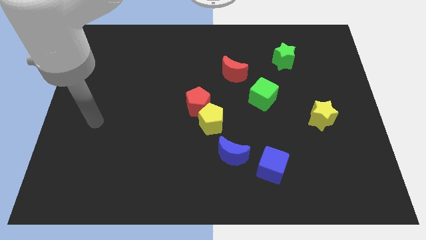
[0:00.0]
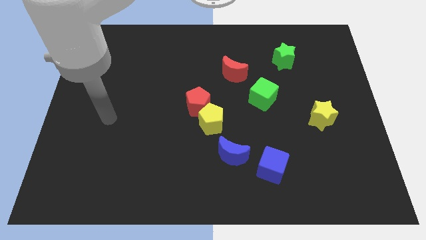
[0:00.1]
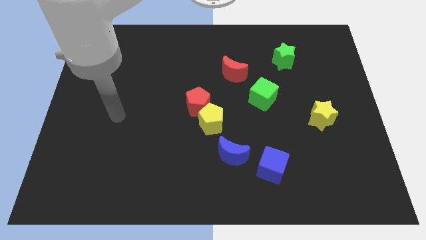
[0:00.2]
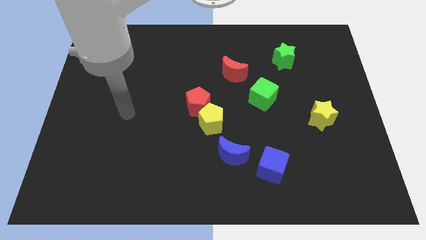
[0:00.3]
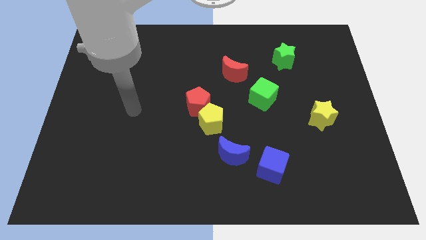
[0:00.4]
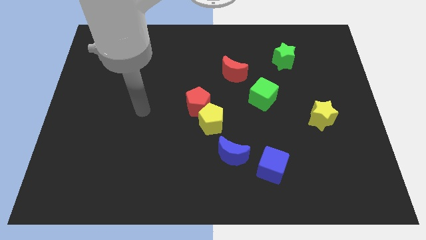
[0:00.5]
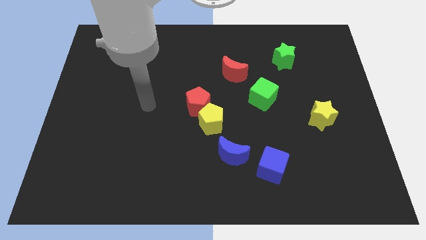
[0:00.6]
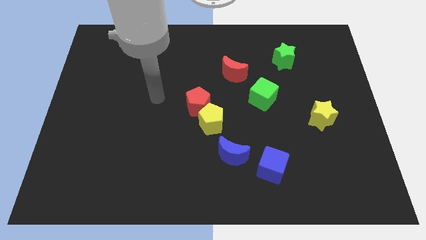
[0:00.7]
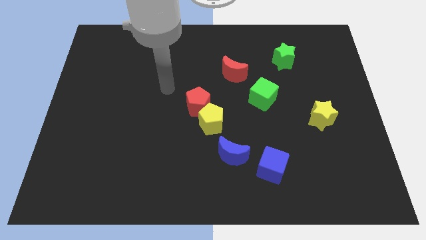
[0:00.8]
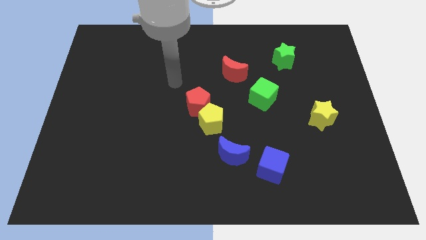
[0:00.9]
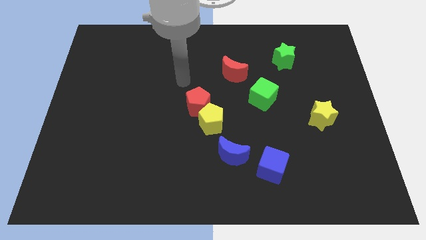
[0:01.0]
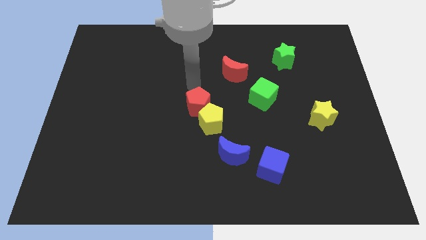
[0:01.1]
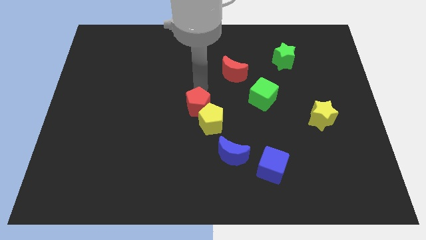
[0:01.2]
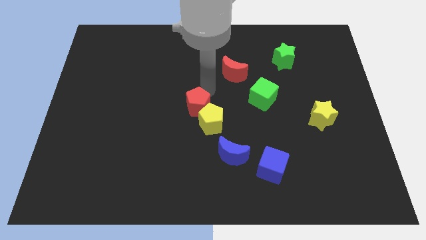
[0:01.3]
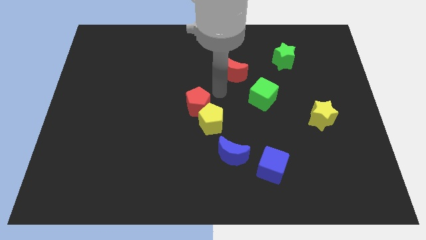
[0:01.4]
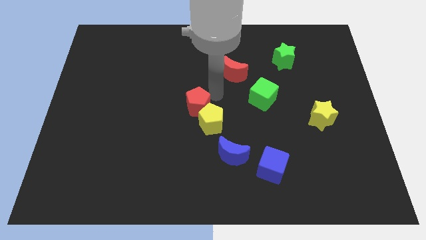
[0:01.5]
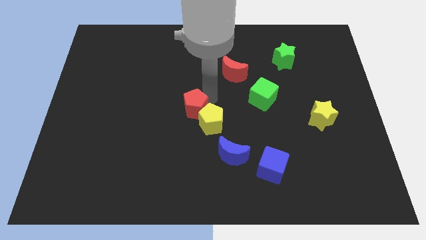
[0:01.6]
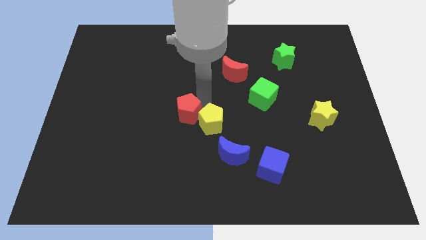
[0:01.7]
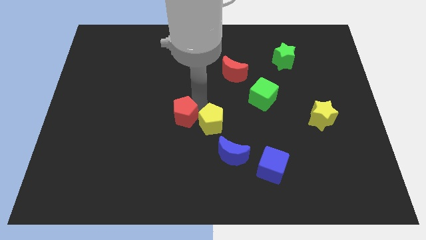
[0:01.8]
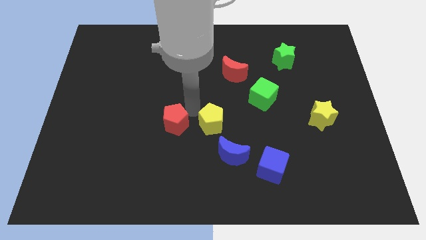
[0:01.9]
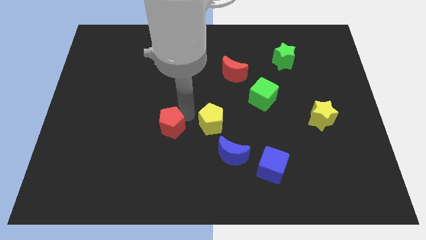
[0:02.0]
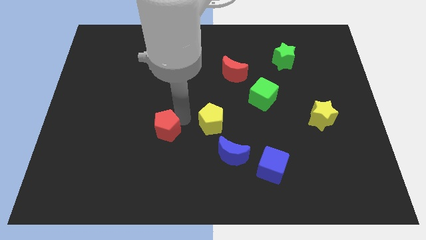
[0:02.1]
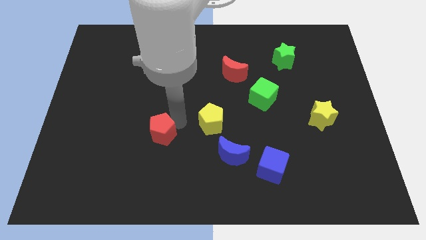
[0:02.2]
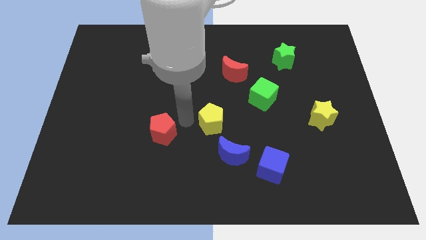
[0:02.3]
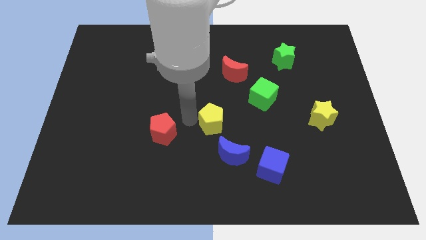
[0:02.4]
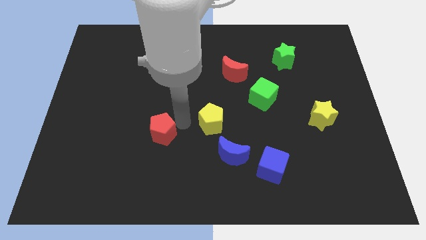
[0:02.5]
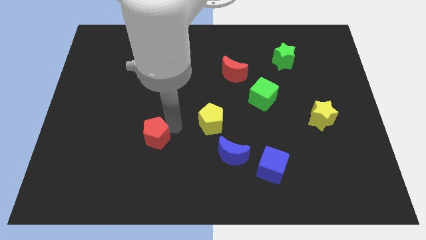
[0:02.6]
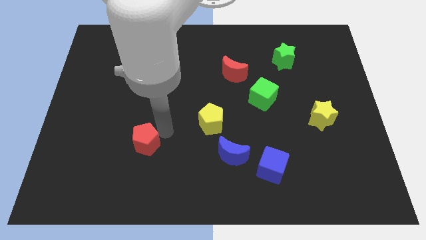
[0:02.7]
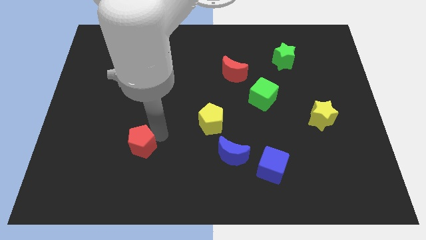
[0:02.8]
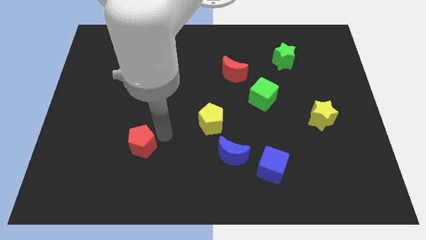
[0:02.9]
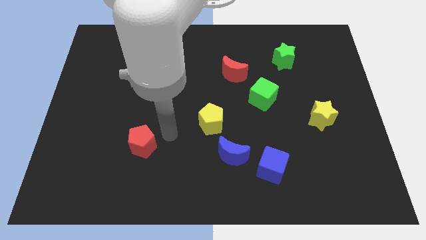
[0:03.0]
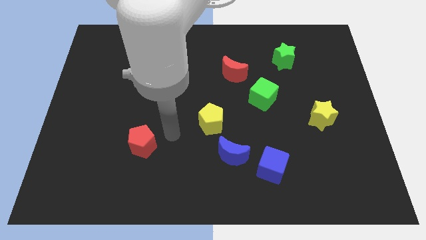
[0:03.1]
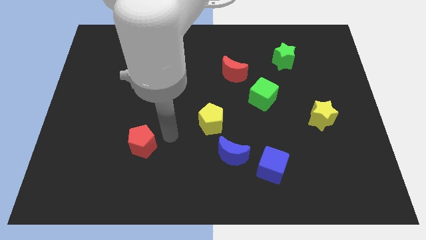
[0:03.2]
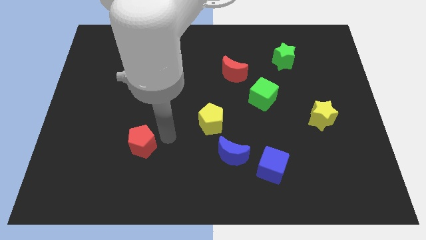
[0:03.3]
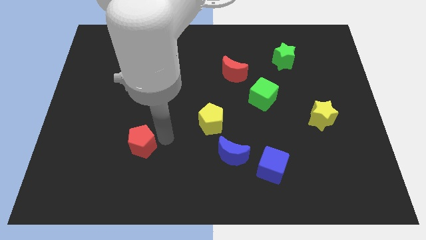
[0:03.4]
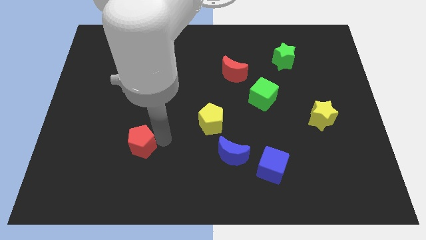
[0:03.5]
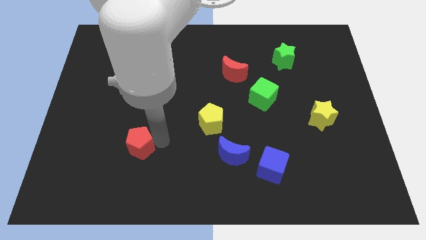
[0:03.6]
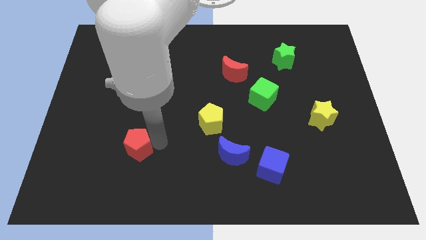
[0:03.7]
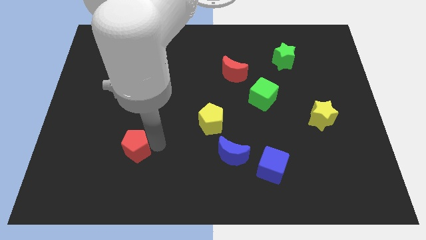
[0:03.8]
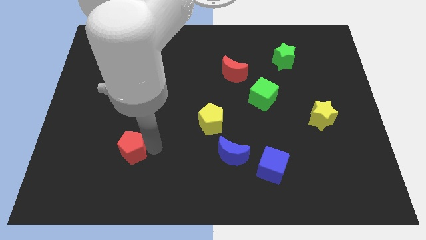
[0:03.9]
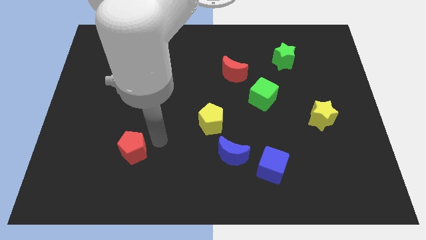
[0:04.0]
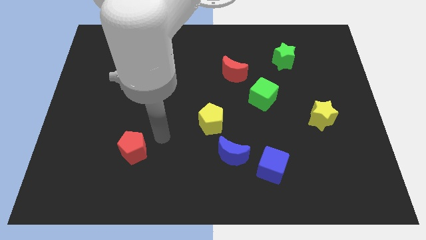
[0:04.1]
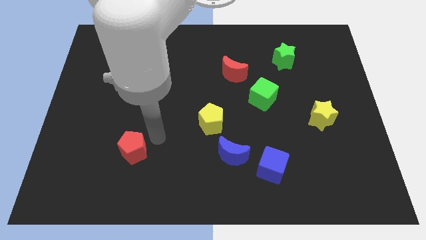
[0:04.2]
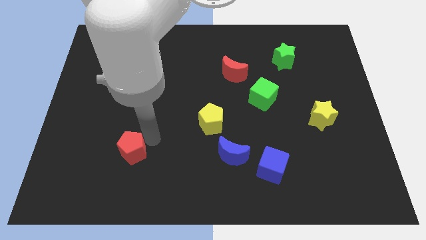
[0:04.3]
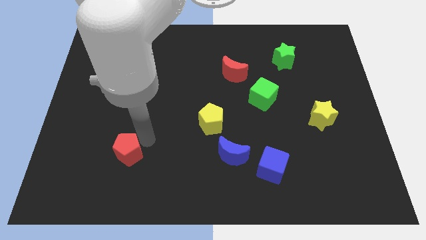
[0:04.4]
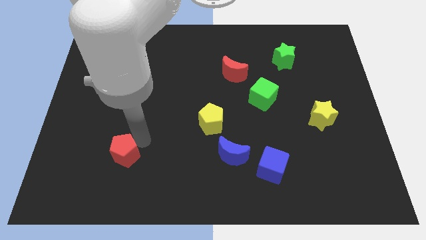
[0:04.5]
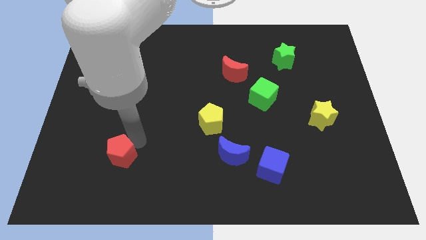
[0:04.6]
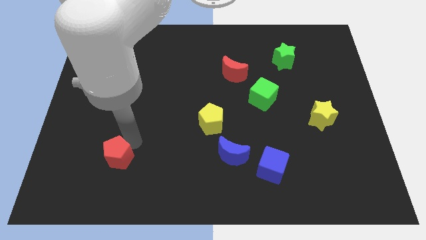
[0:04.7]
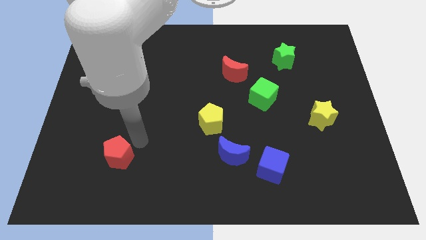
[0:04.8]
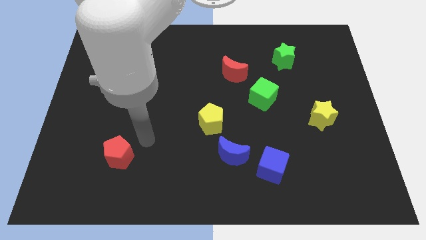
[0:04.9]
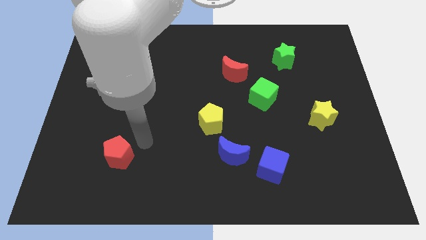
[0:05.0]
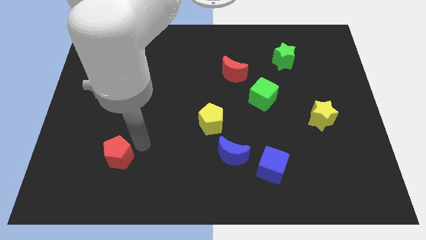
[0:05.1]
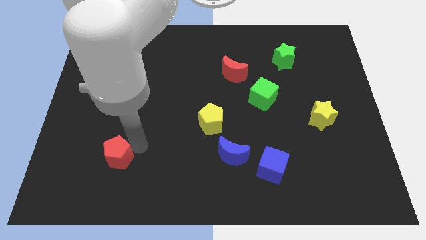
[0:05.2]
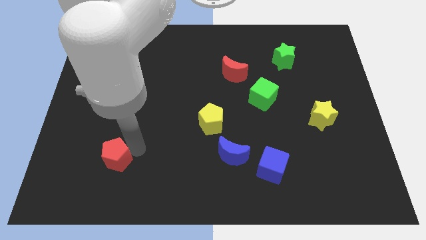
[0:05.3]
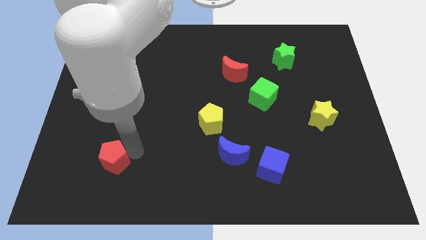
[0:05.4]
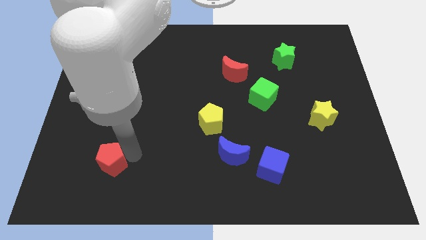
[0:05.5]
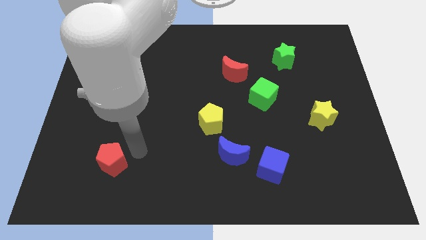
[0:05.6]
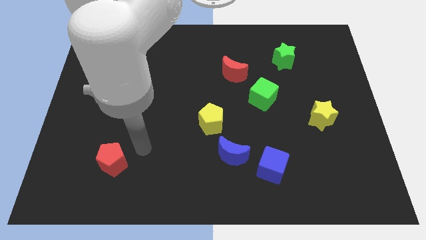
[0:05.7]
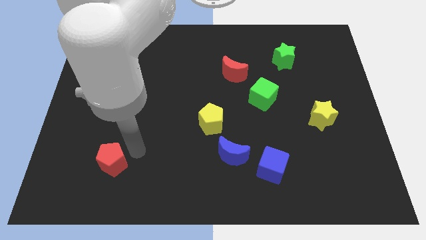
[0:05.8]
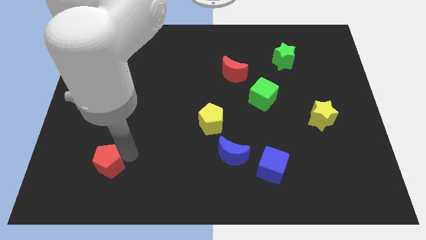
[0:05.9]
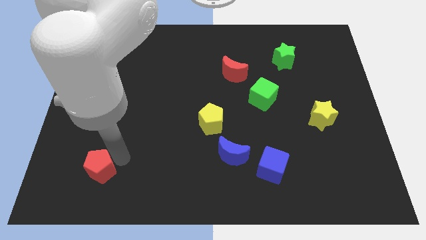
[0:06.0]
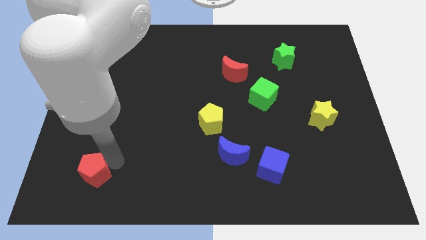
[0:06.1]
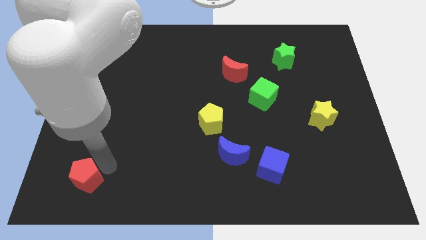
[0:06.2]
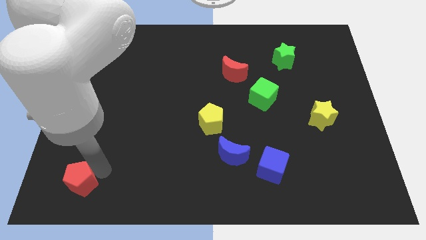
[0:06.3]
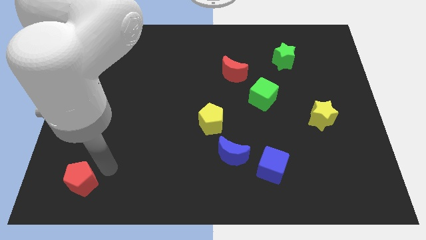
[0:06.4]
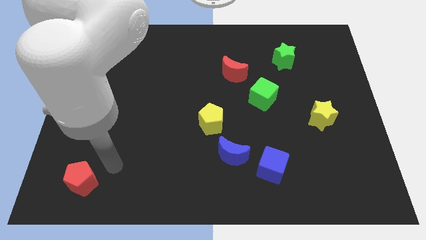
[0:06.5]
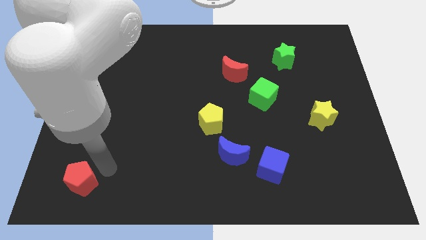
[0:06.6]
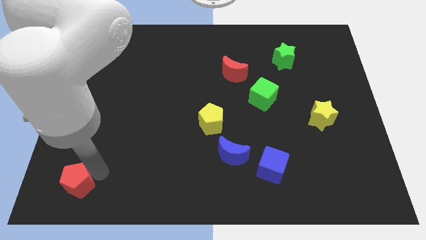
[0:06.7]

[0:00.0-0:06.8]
put the red pentagon to the lower left corner
